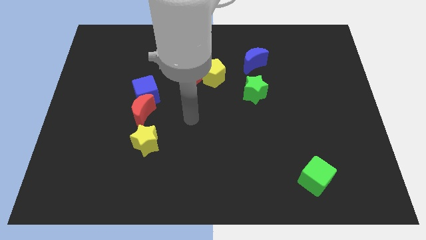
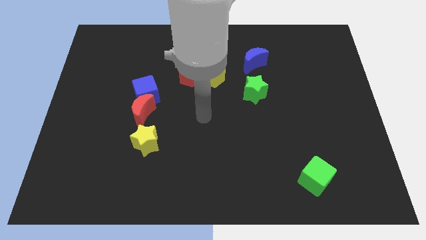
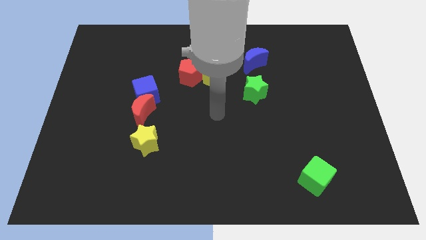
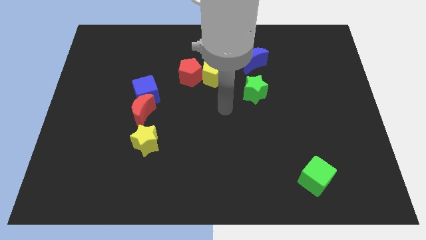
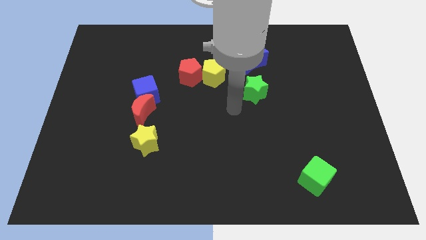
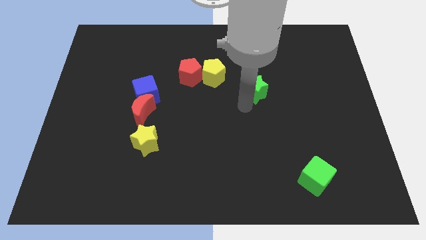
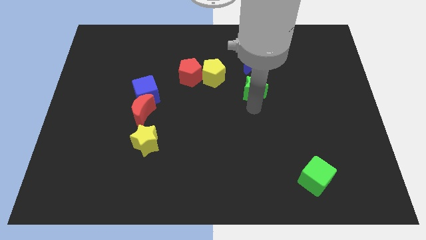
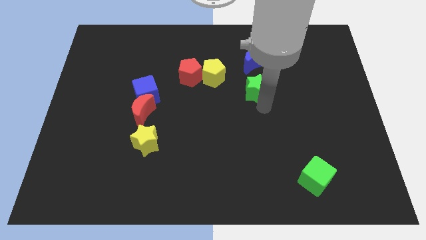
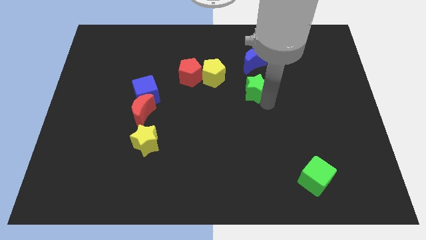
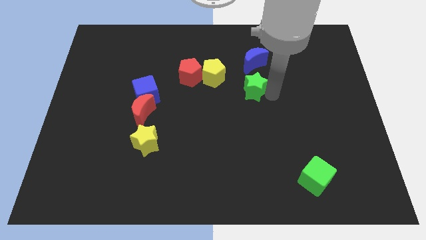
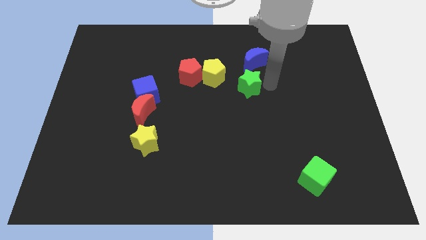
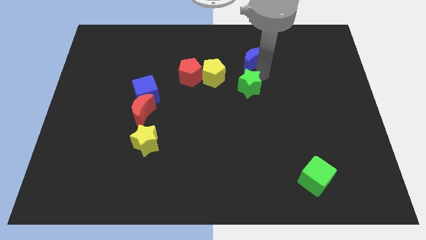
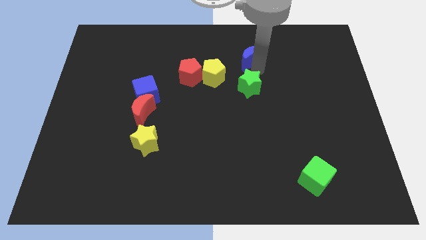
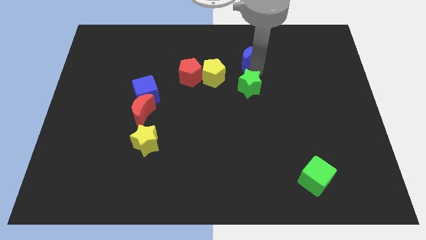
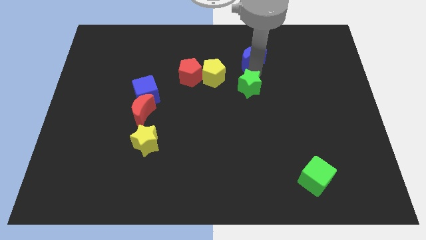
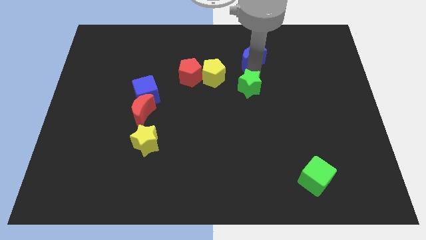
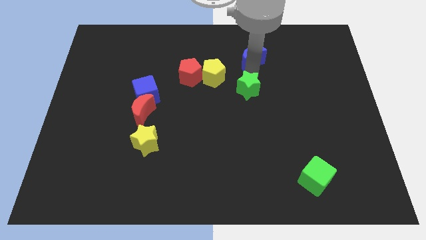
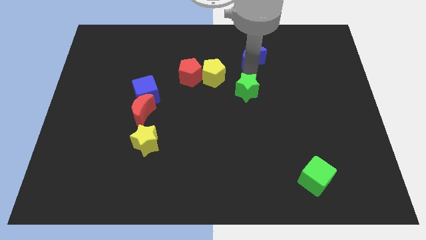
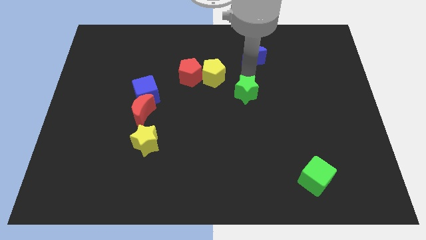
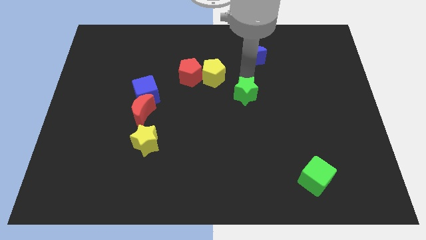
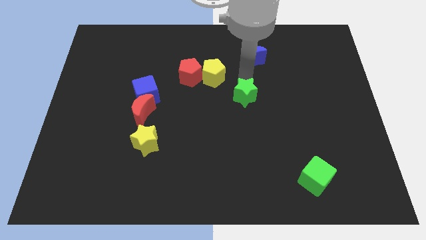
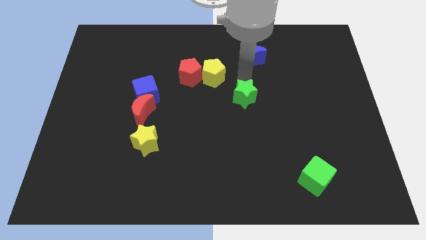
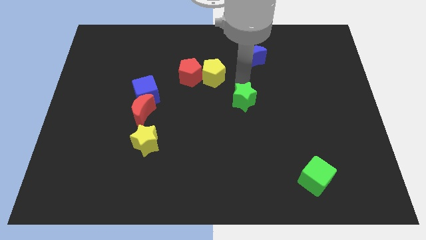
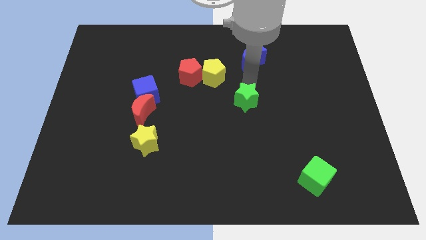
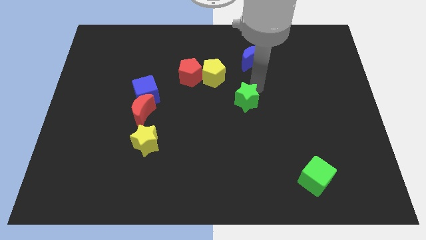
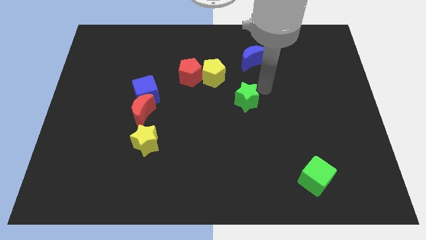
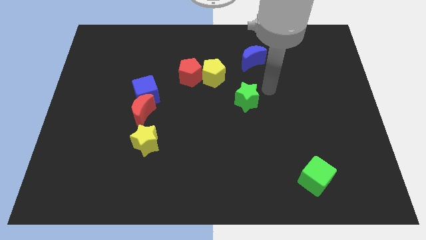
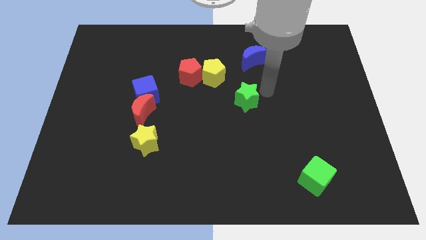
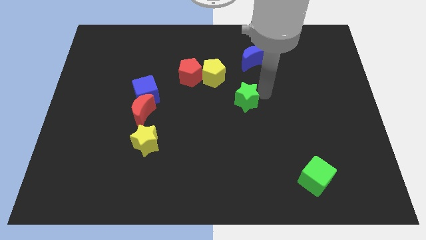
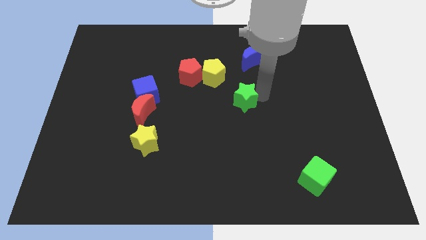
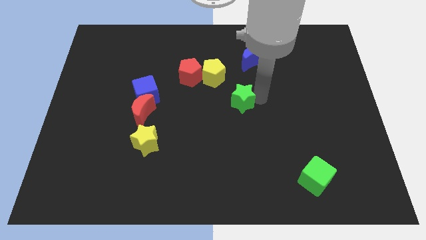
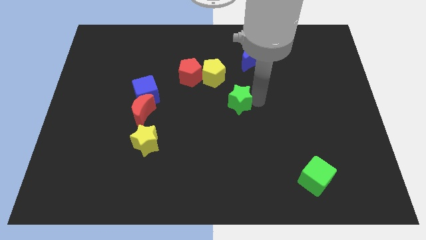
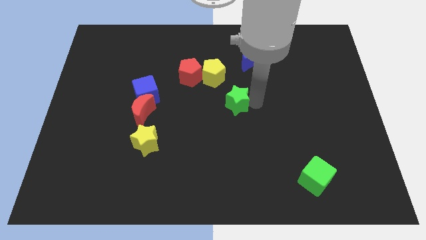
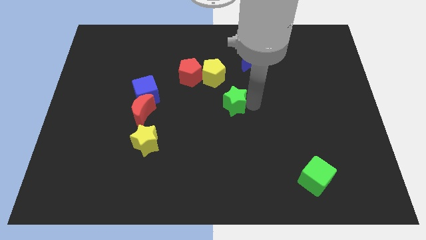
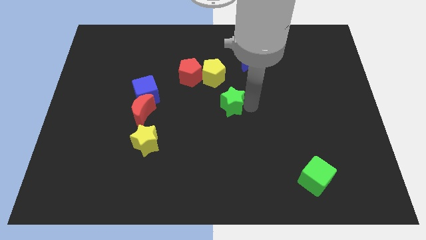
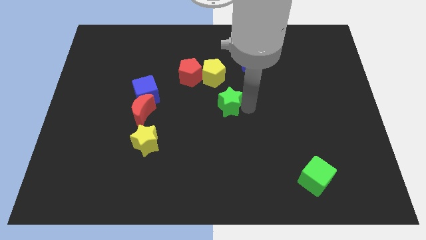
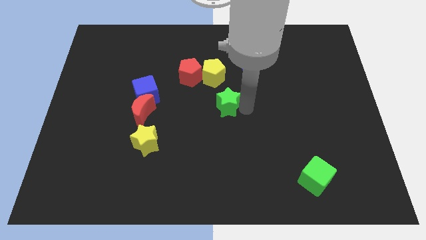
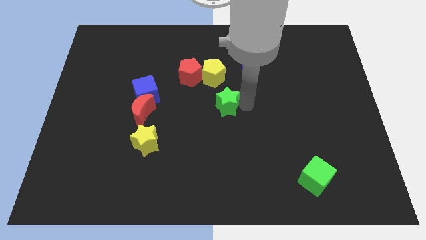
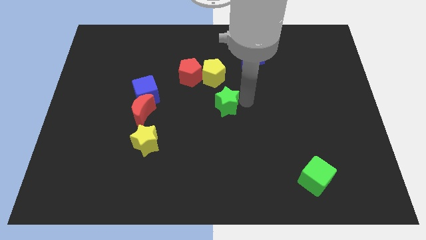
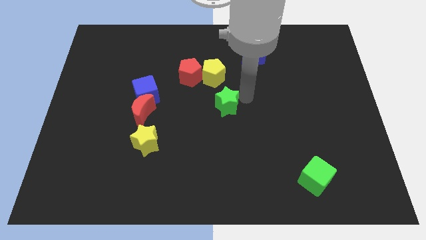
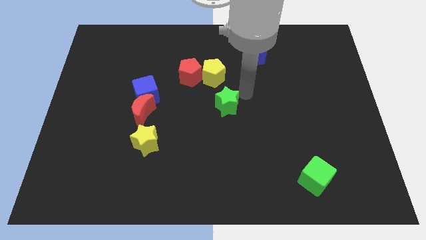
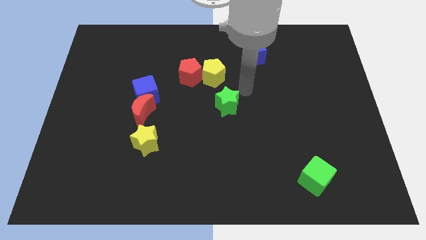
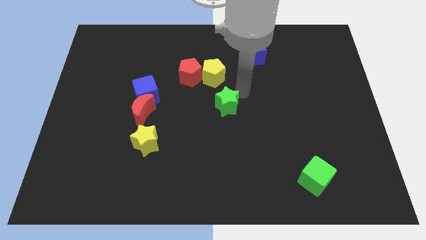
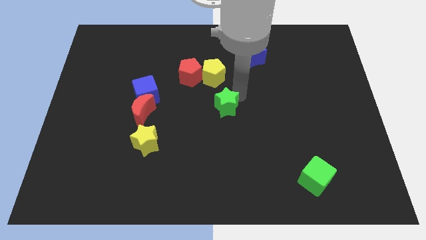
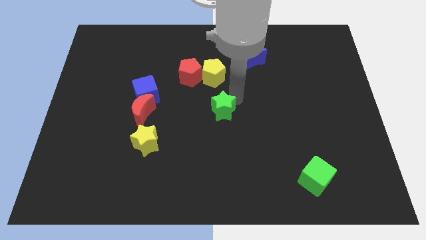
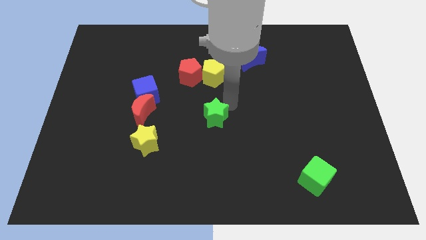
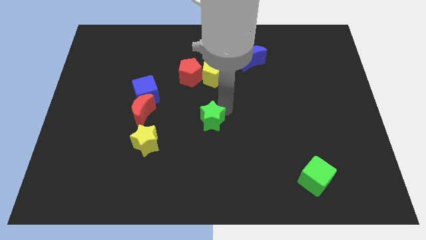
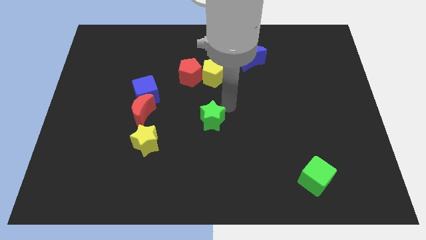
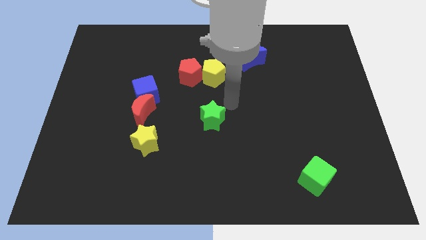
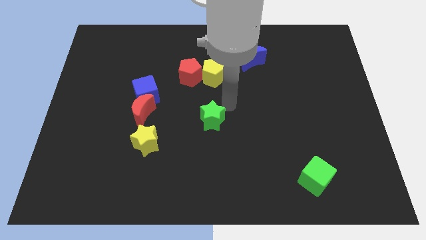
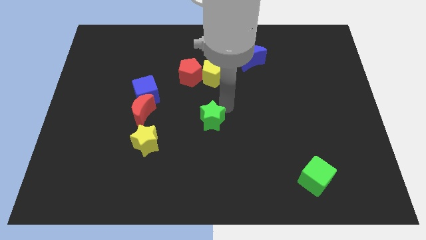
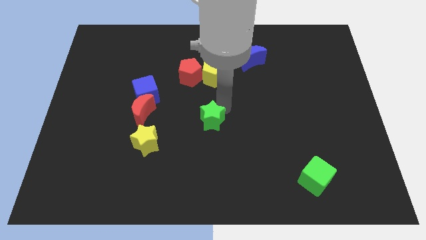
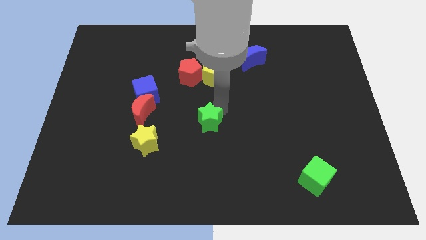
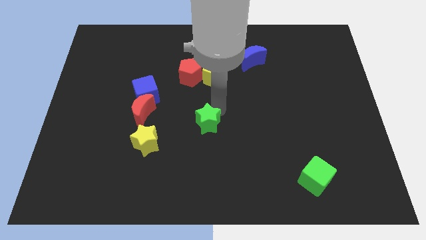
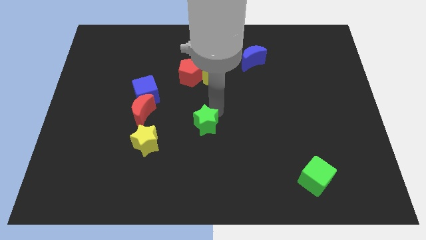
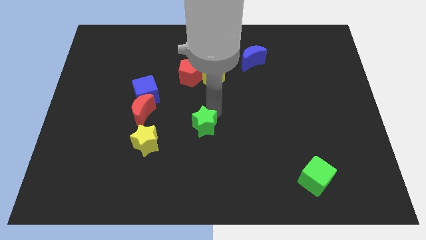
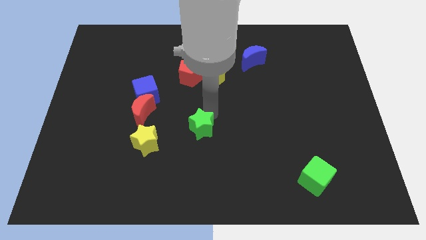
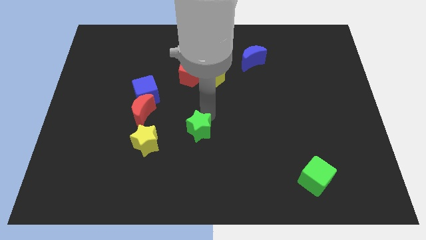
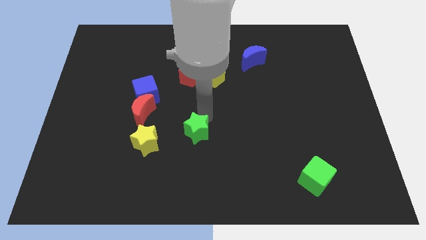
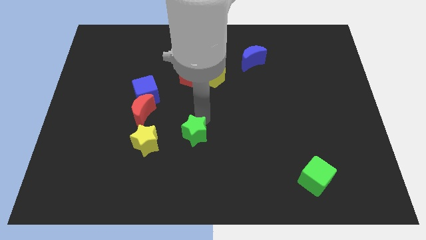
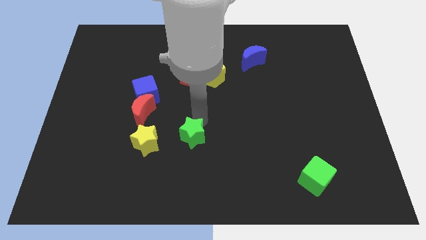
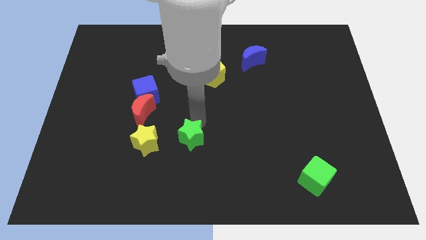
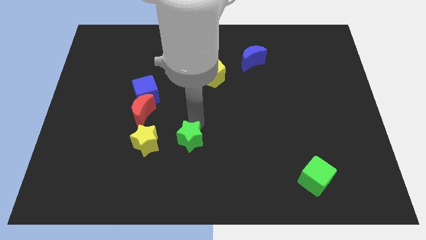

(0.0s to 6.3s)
push the green star downwards and to the left

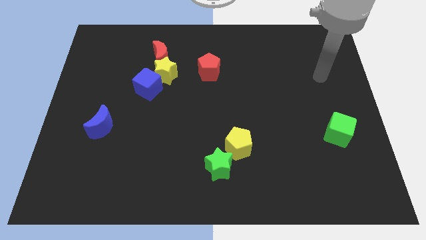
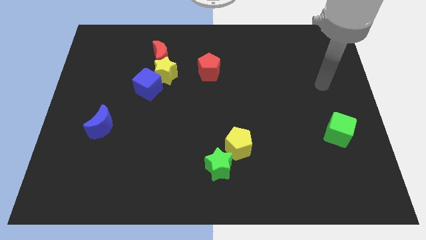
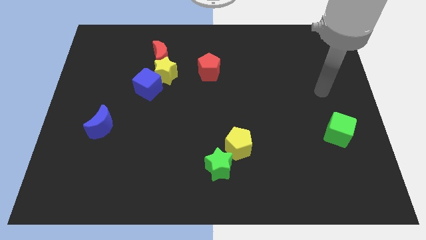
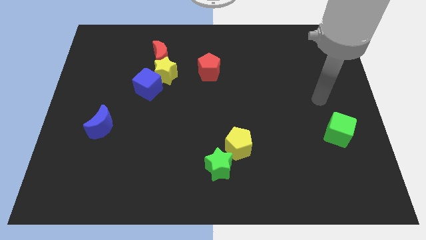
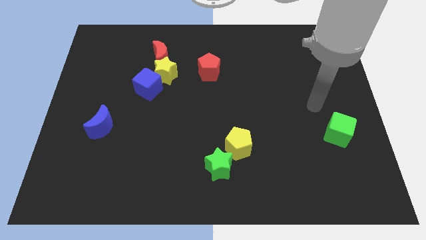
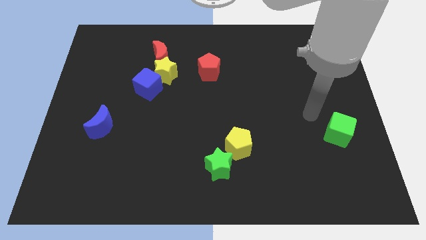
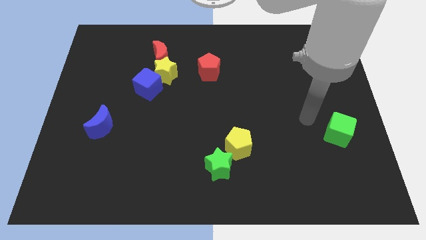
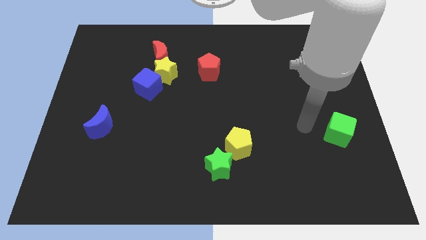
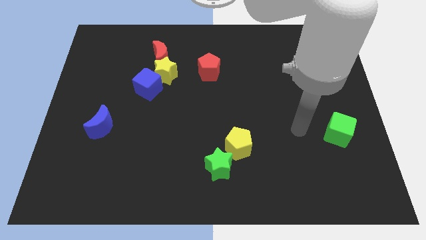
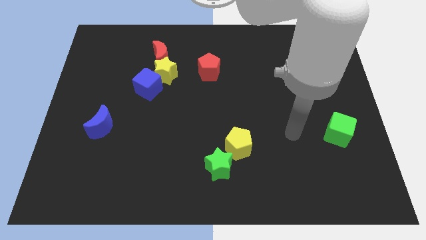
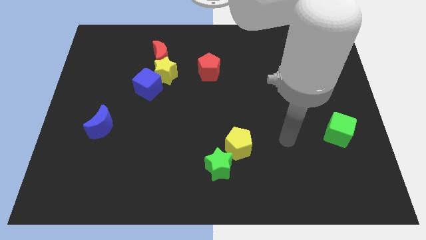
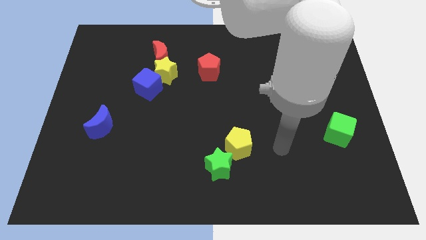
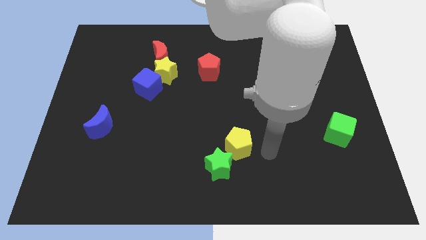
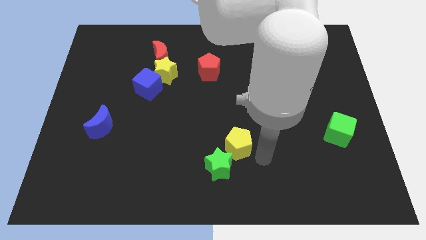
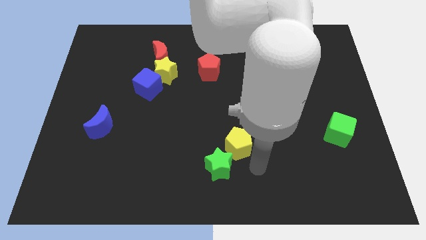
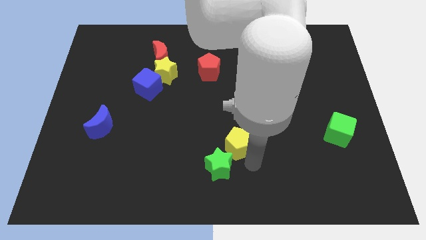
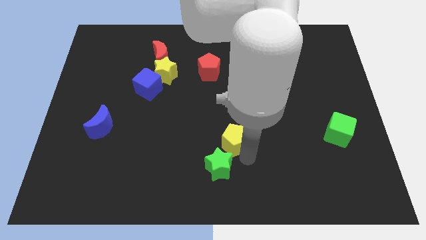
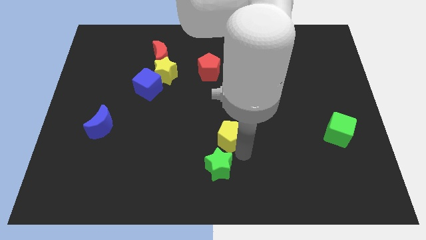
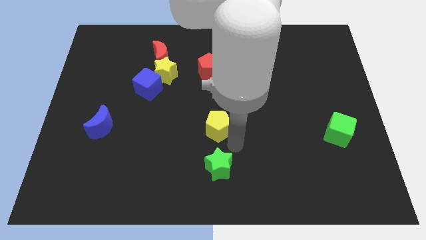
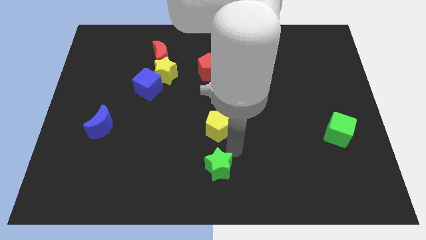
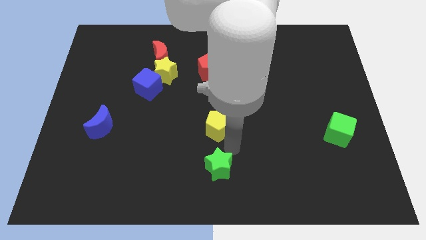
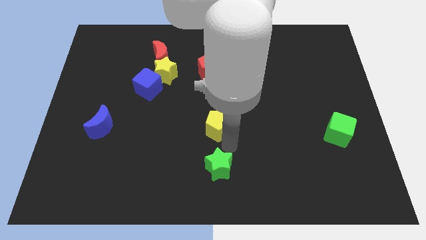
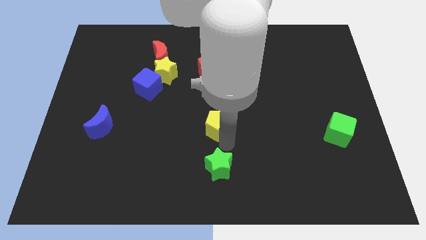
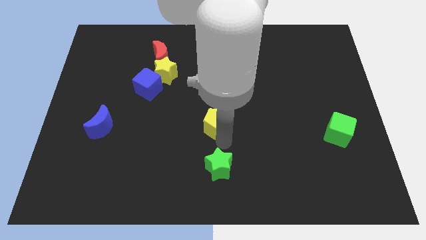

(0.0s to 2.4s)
slightly push the yellow pentagon diagonally up and left
